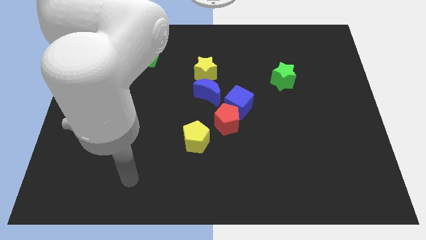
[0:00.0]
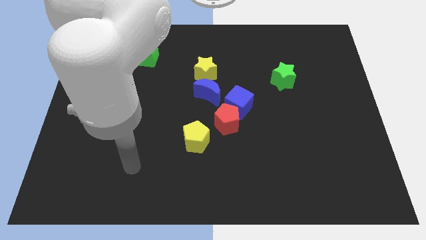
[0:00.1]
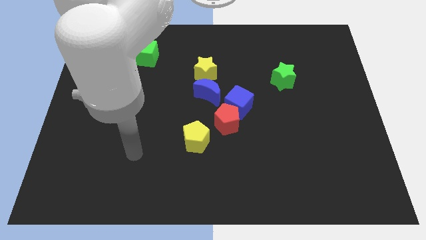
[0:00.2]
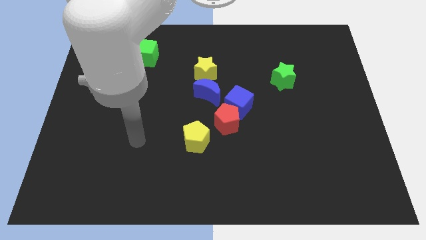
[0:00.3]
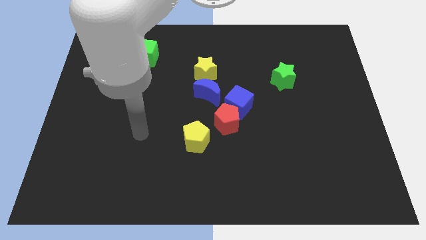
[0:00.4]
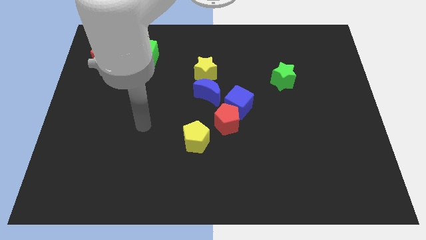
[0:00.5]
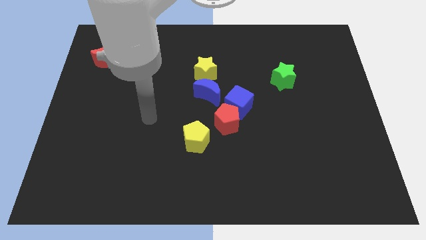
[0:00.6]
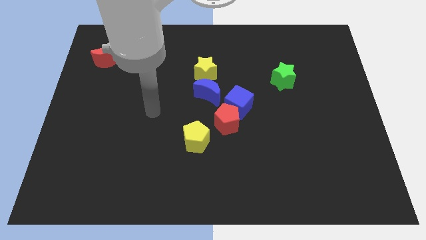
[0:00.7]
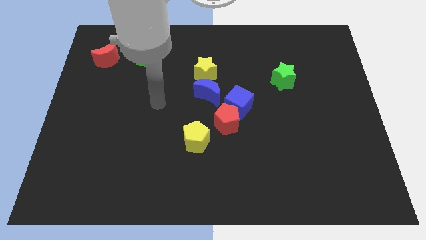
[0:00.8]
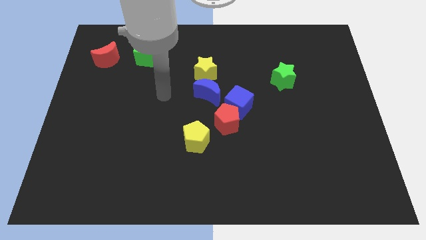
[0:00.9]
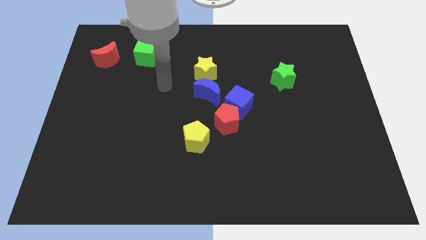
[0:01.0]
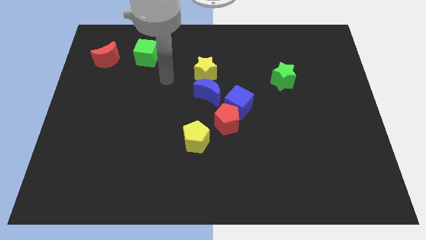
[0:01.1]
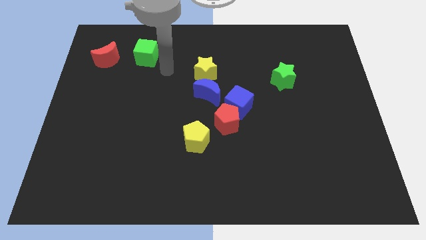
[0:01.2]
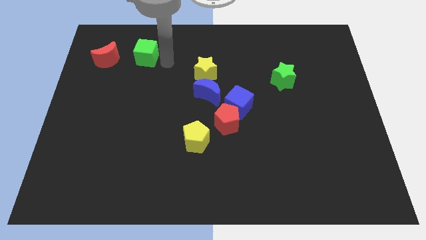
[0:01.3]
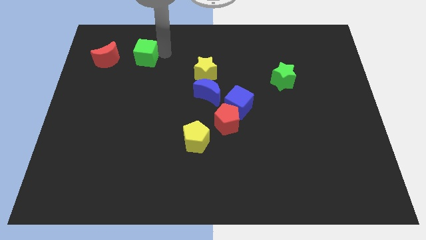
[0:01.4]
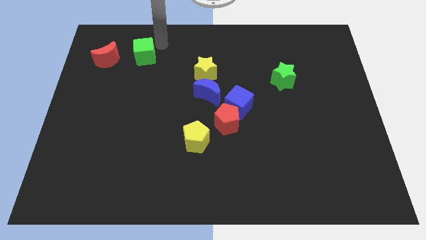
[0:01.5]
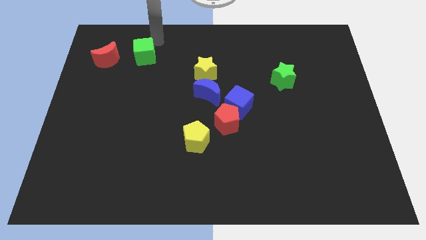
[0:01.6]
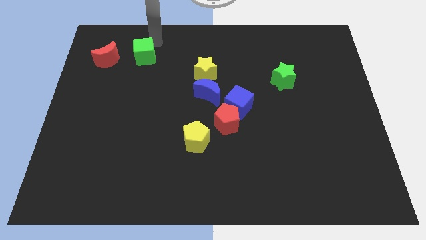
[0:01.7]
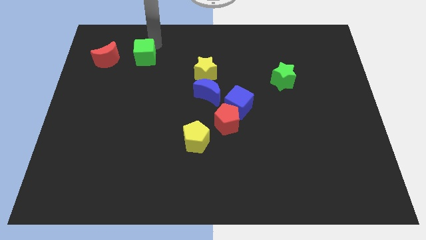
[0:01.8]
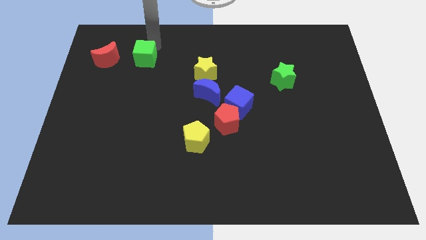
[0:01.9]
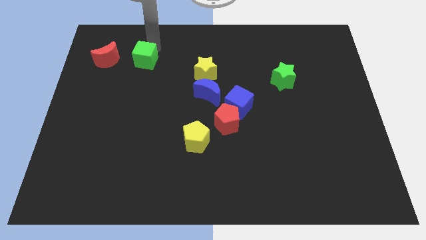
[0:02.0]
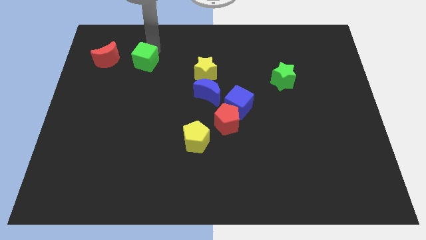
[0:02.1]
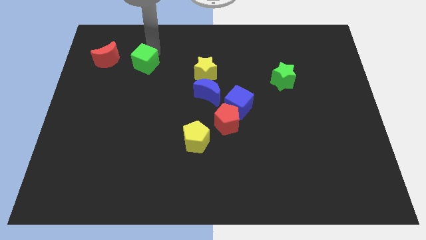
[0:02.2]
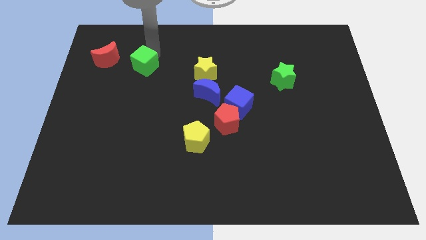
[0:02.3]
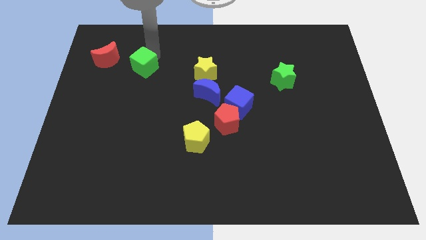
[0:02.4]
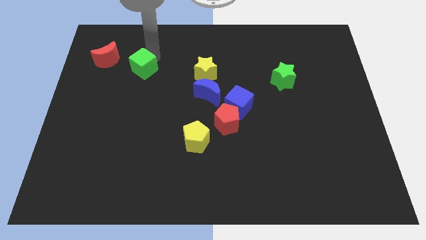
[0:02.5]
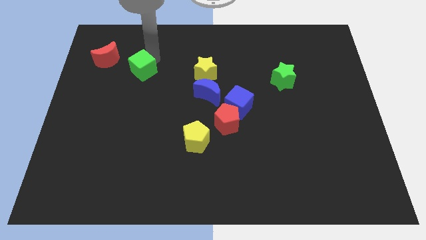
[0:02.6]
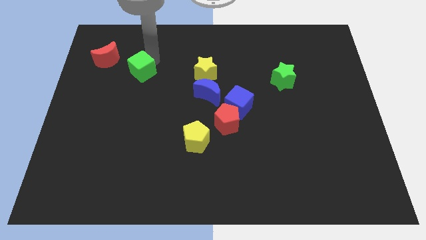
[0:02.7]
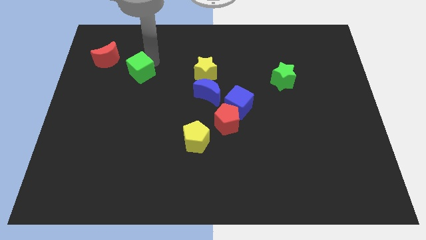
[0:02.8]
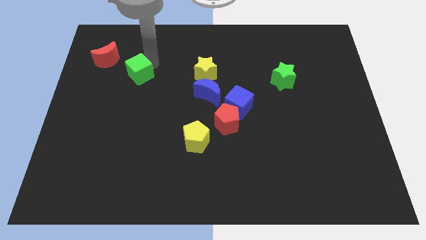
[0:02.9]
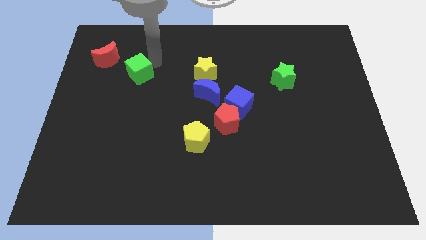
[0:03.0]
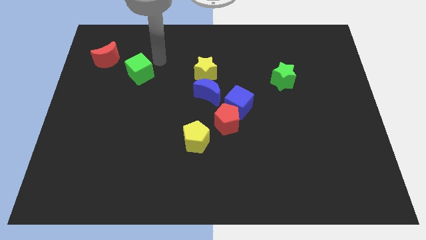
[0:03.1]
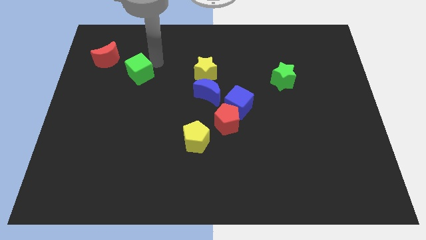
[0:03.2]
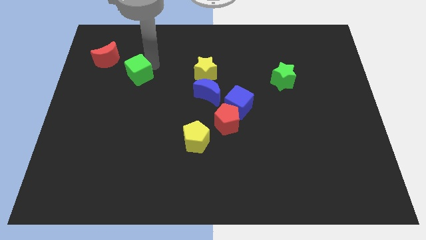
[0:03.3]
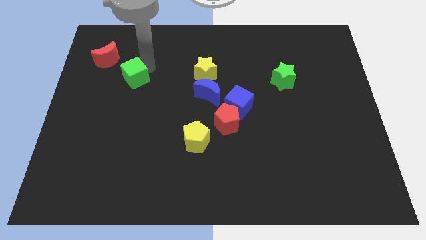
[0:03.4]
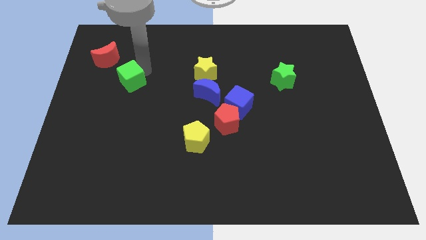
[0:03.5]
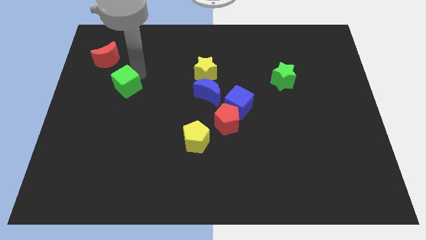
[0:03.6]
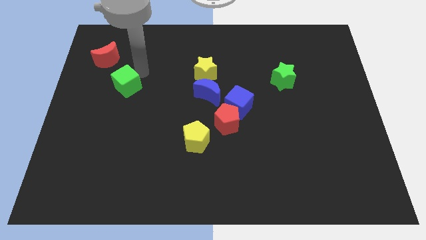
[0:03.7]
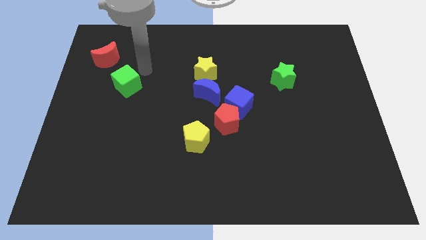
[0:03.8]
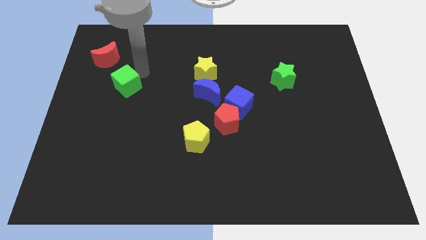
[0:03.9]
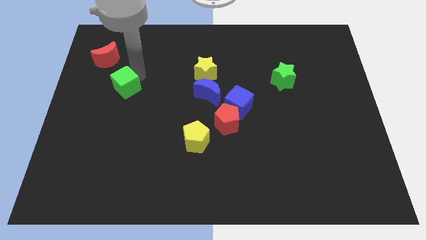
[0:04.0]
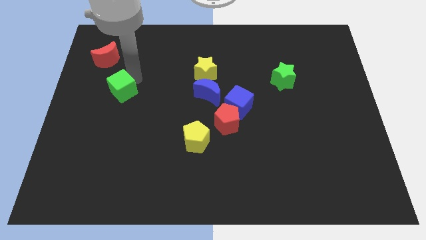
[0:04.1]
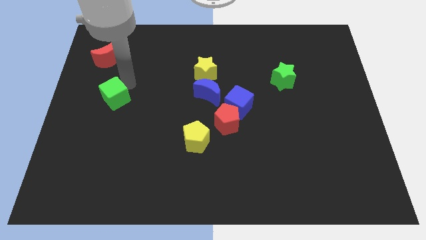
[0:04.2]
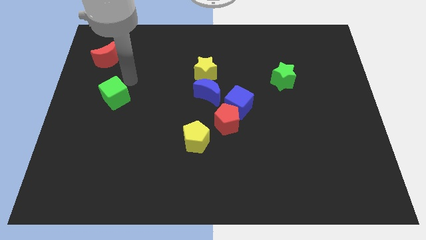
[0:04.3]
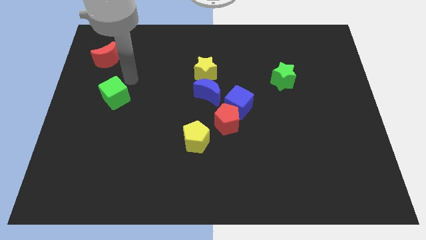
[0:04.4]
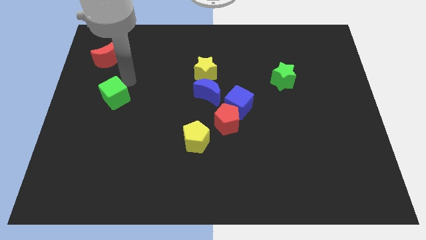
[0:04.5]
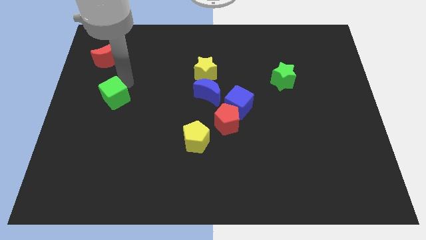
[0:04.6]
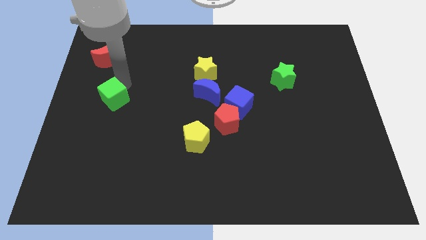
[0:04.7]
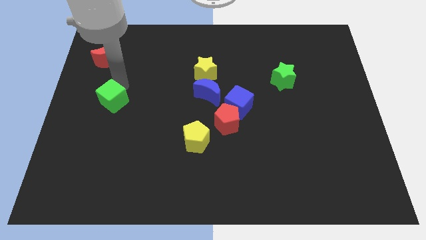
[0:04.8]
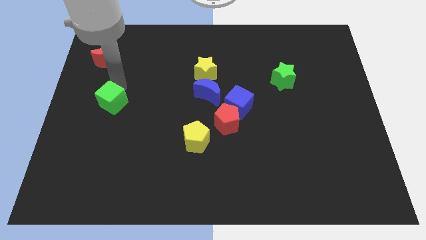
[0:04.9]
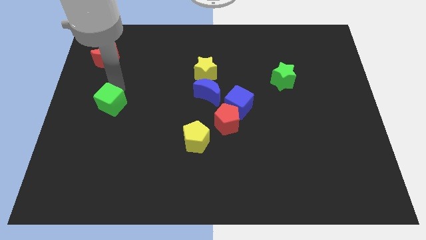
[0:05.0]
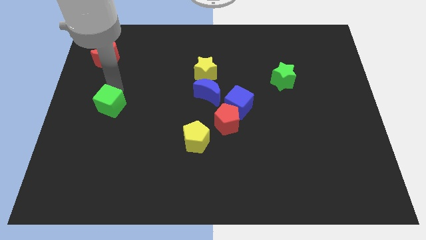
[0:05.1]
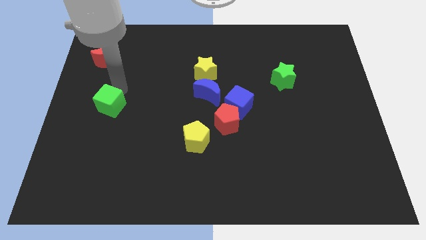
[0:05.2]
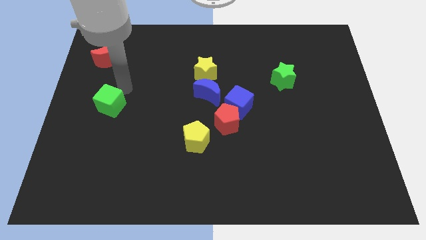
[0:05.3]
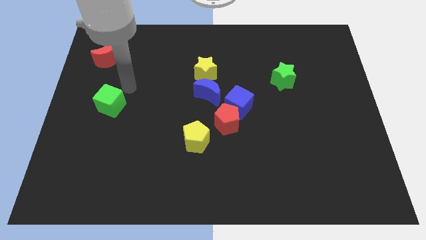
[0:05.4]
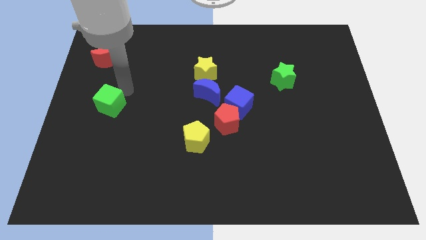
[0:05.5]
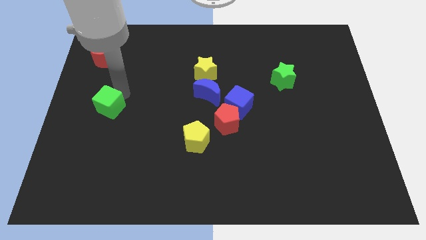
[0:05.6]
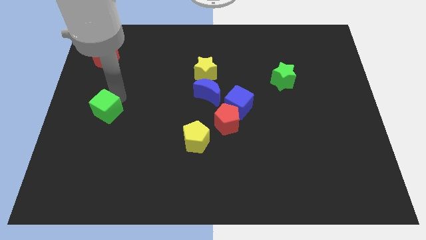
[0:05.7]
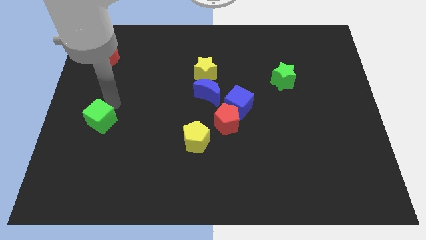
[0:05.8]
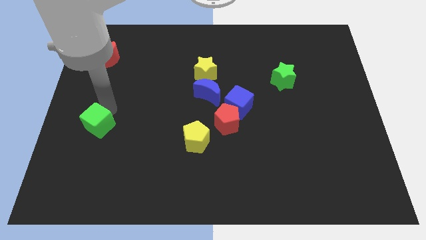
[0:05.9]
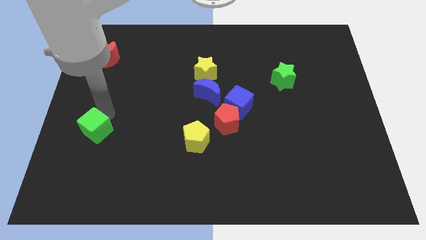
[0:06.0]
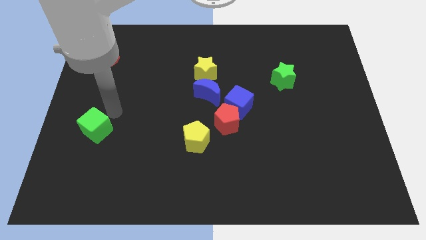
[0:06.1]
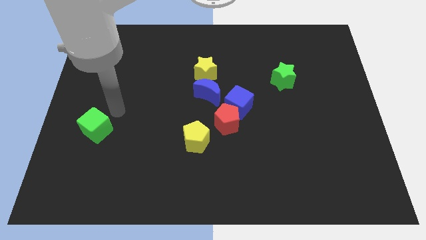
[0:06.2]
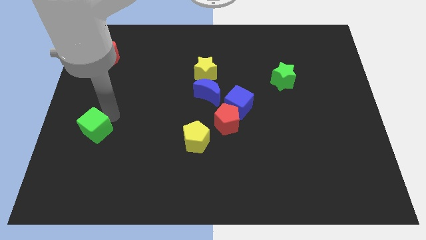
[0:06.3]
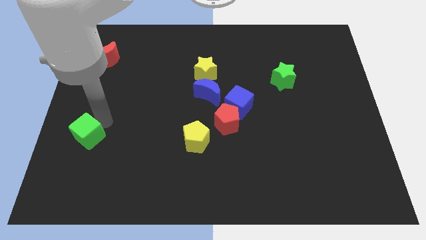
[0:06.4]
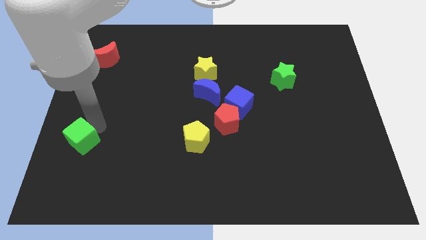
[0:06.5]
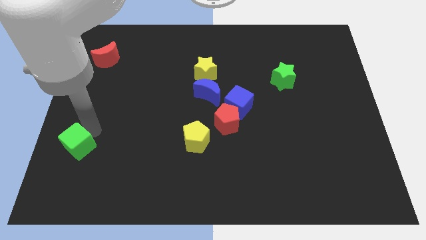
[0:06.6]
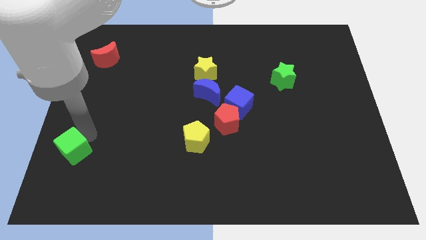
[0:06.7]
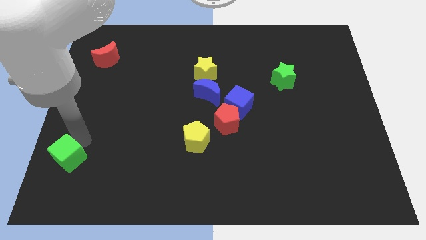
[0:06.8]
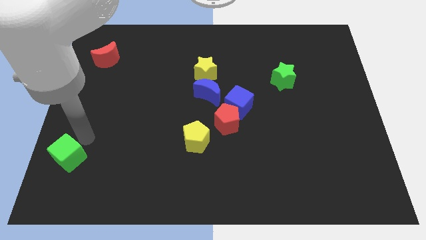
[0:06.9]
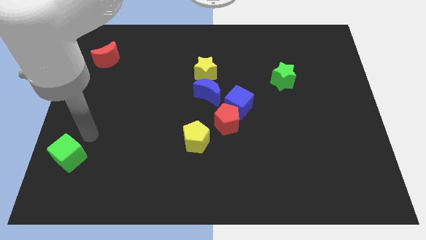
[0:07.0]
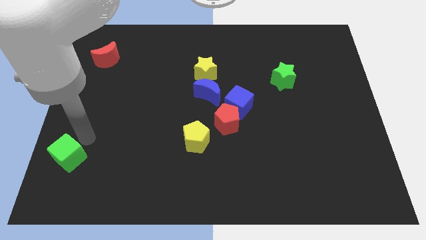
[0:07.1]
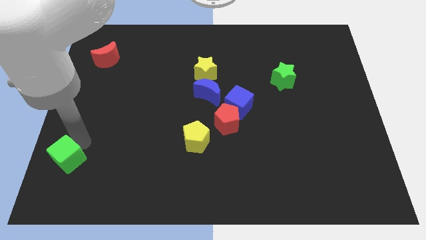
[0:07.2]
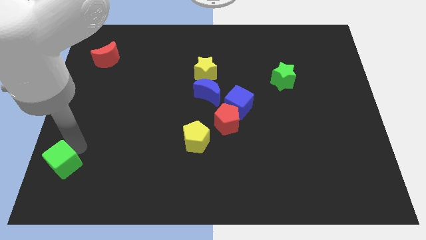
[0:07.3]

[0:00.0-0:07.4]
move the green cube to the bottom left corner
